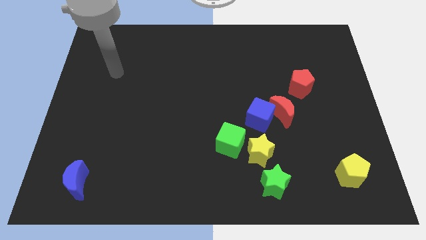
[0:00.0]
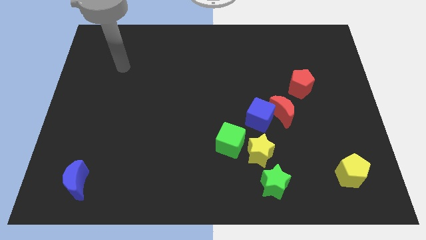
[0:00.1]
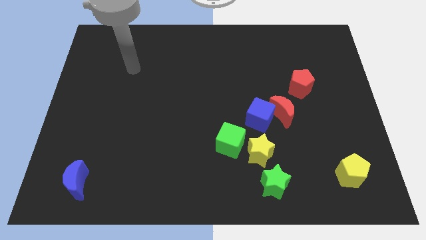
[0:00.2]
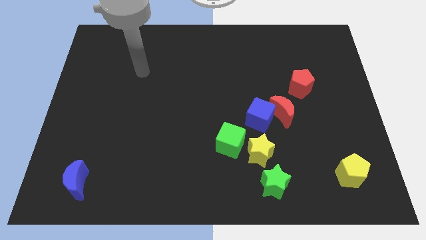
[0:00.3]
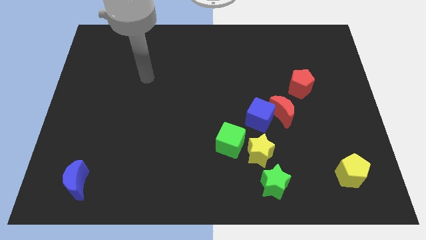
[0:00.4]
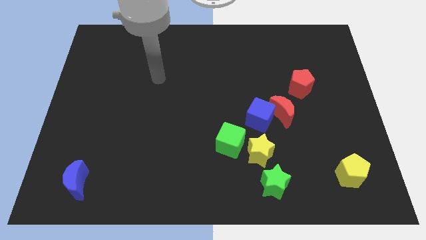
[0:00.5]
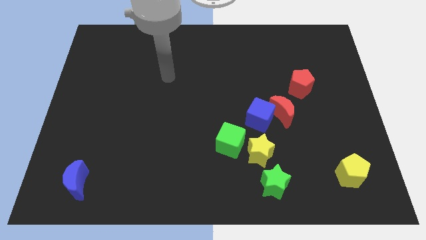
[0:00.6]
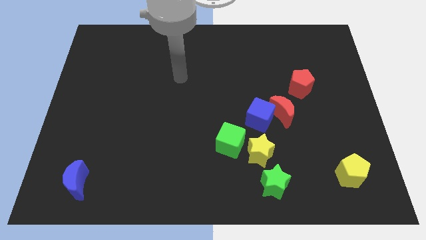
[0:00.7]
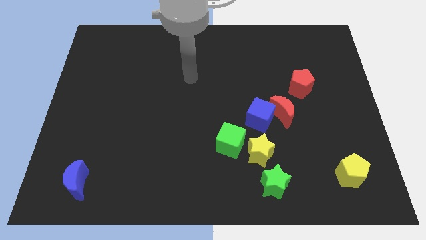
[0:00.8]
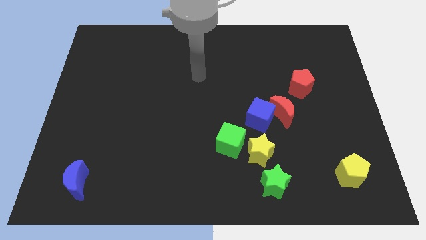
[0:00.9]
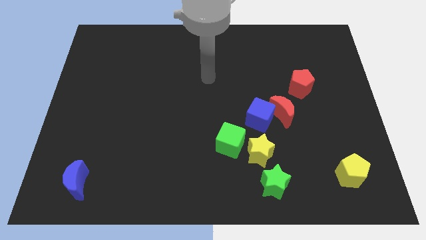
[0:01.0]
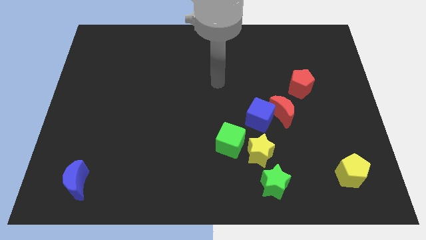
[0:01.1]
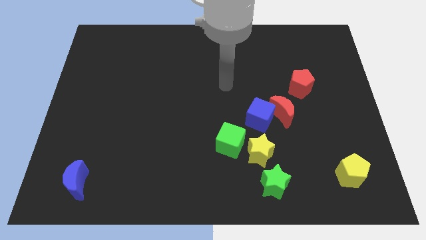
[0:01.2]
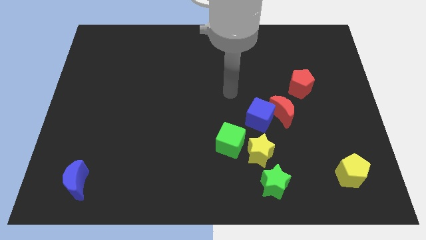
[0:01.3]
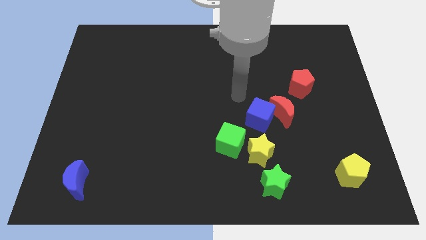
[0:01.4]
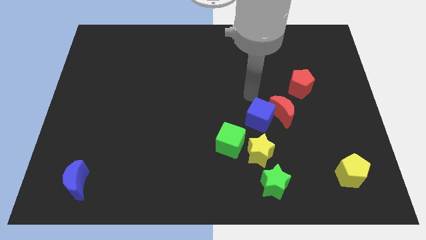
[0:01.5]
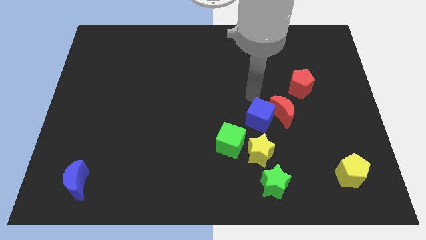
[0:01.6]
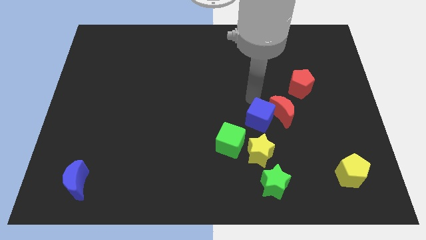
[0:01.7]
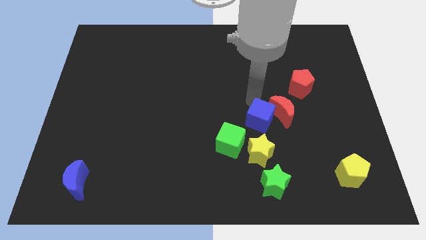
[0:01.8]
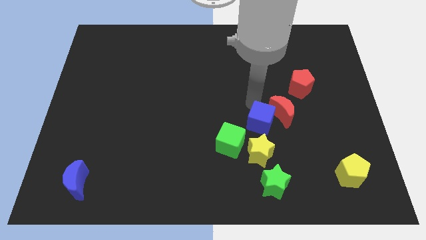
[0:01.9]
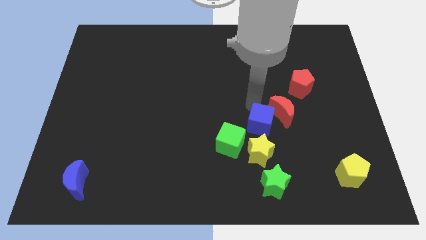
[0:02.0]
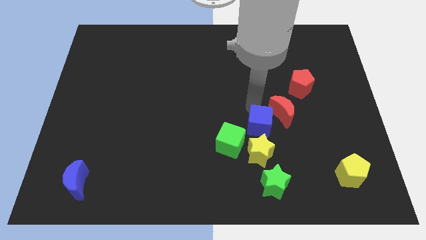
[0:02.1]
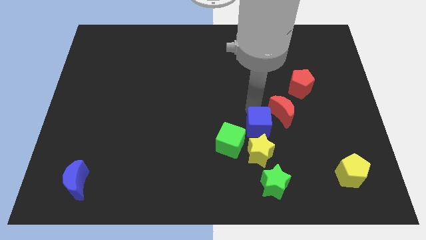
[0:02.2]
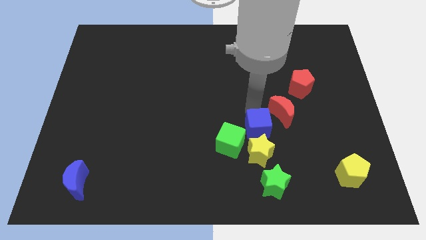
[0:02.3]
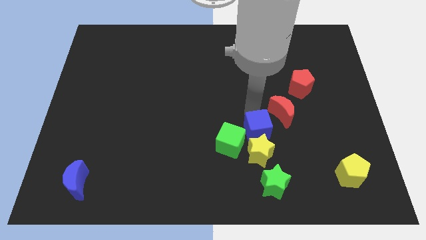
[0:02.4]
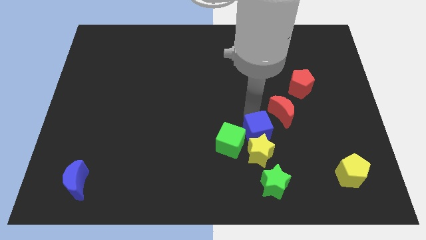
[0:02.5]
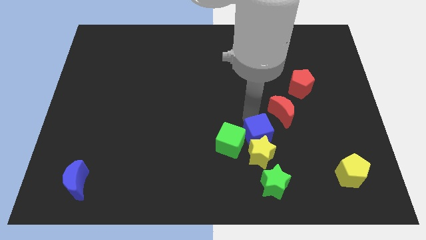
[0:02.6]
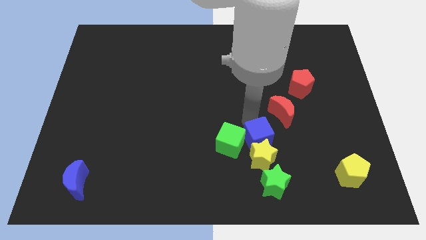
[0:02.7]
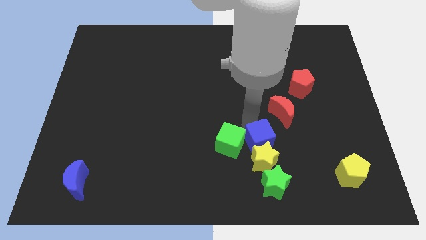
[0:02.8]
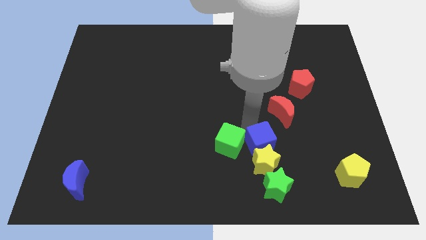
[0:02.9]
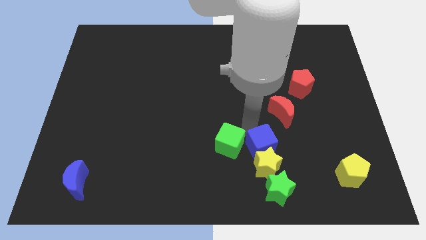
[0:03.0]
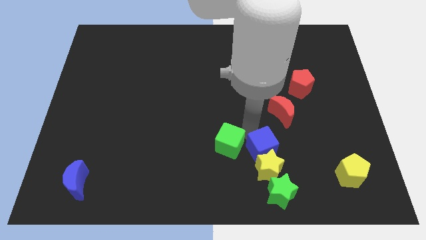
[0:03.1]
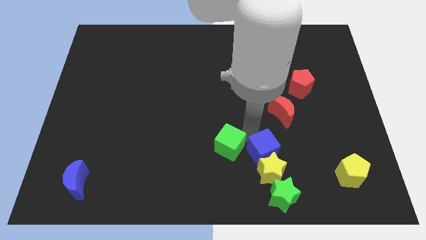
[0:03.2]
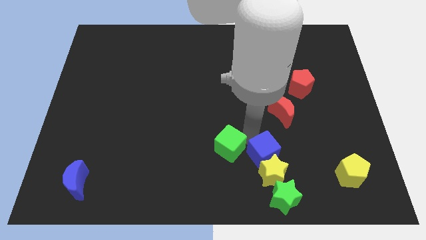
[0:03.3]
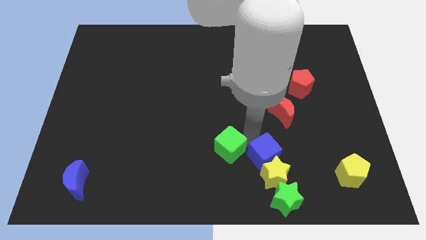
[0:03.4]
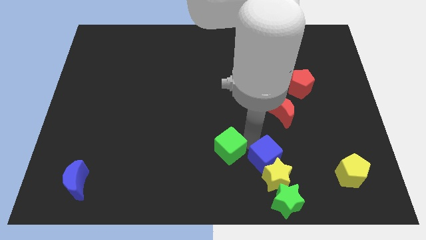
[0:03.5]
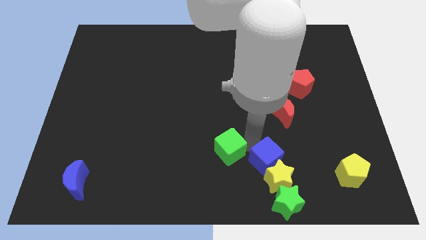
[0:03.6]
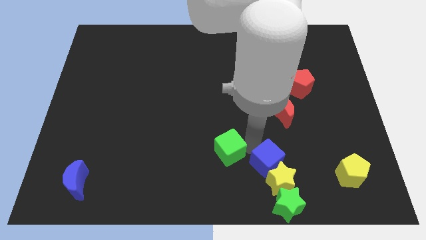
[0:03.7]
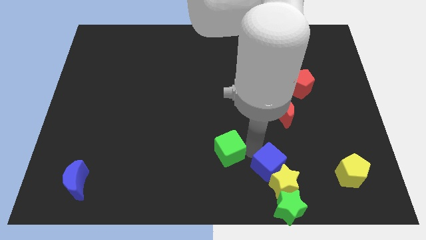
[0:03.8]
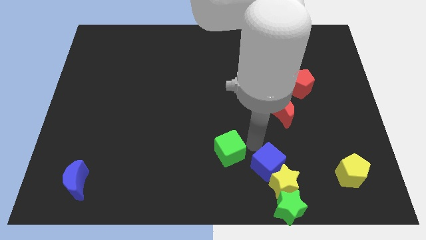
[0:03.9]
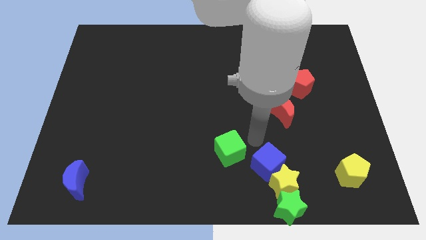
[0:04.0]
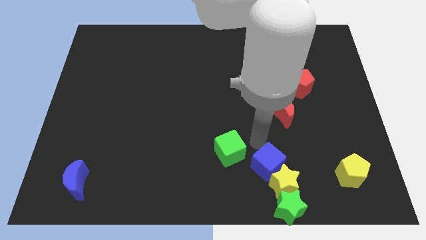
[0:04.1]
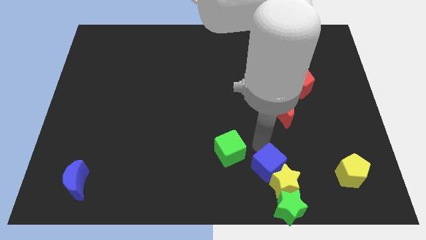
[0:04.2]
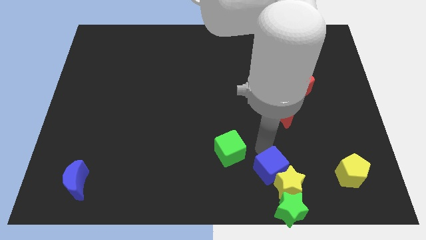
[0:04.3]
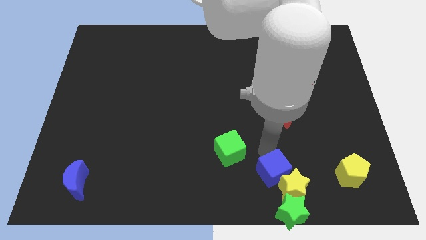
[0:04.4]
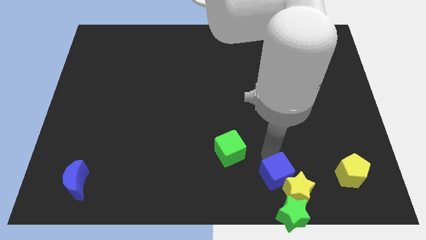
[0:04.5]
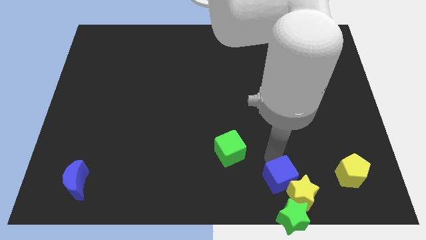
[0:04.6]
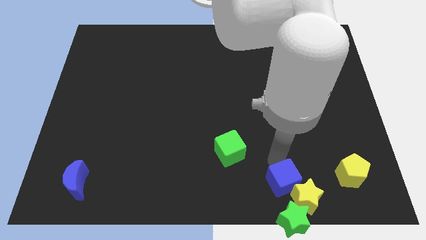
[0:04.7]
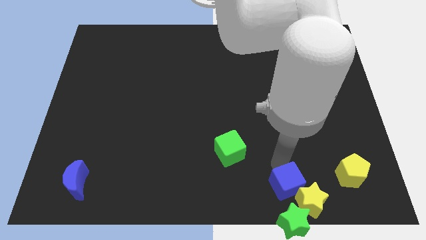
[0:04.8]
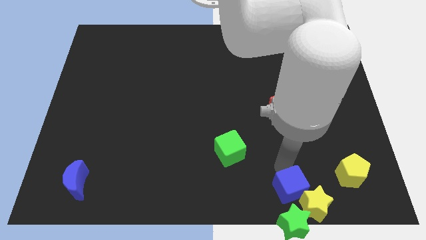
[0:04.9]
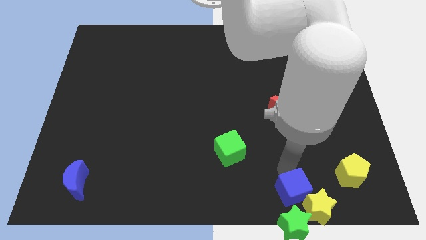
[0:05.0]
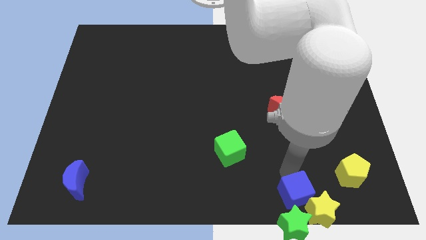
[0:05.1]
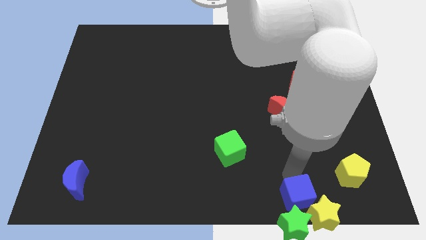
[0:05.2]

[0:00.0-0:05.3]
push the blue cube next to the green star

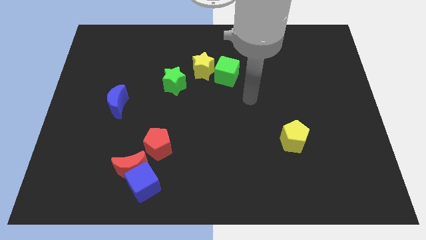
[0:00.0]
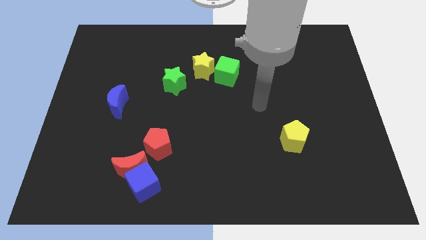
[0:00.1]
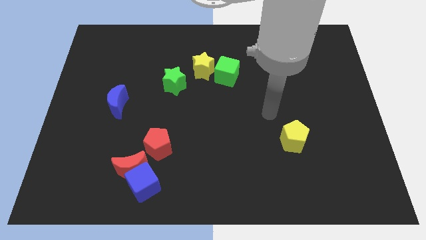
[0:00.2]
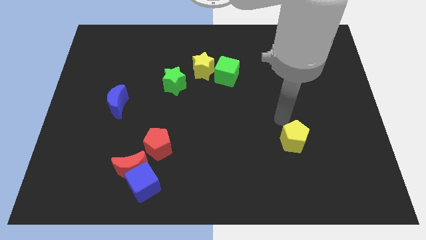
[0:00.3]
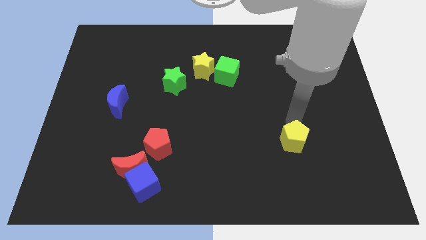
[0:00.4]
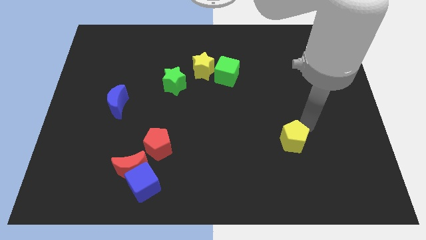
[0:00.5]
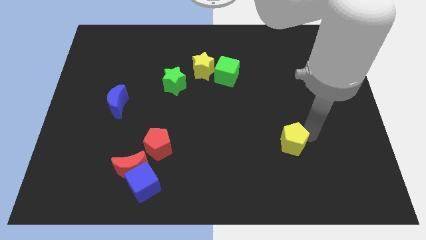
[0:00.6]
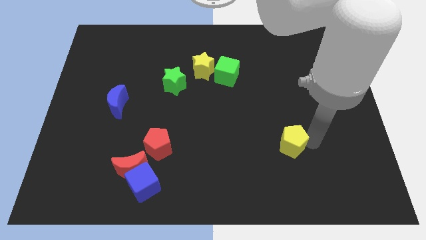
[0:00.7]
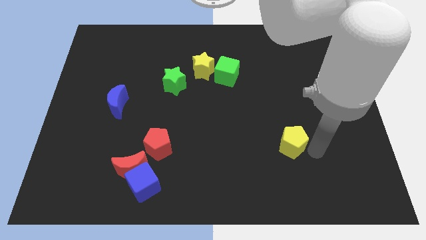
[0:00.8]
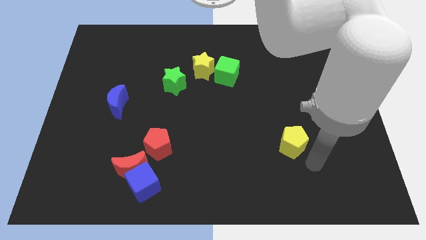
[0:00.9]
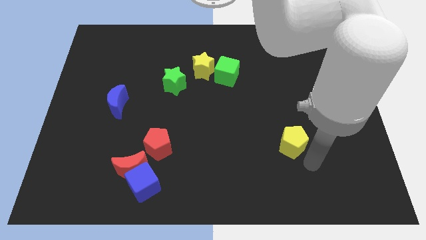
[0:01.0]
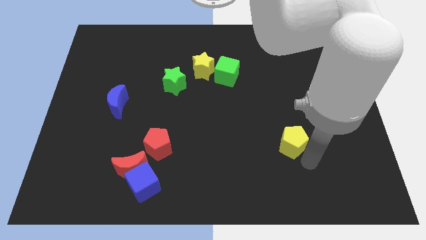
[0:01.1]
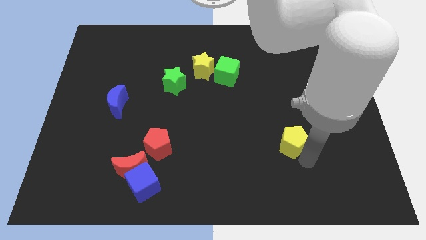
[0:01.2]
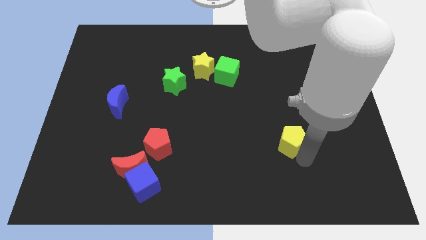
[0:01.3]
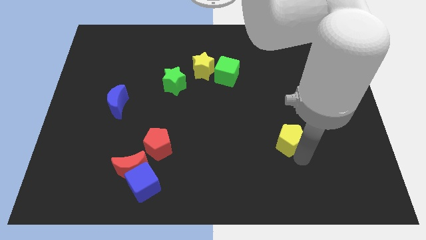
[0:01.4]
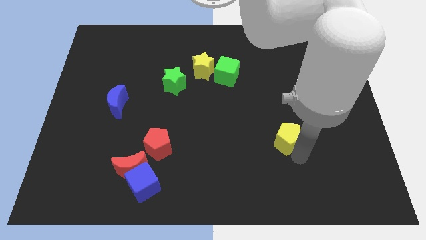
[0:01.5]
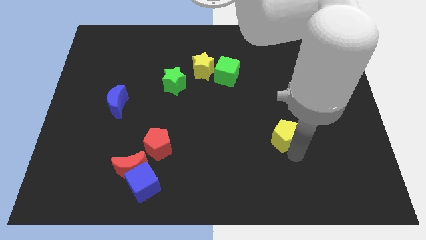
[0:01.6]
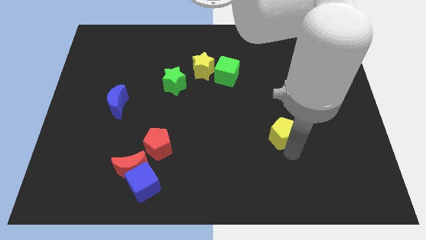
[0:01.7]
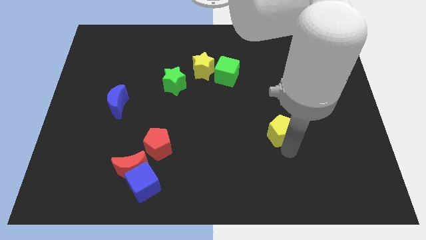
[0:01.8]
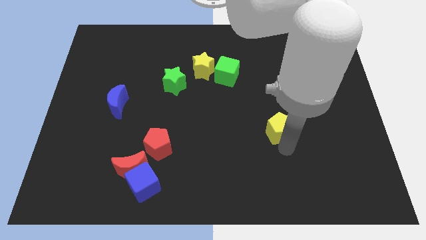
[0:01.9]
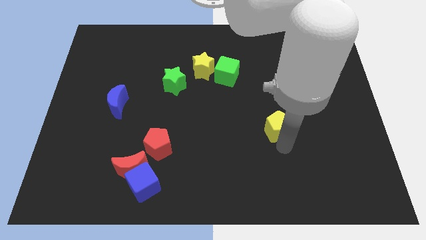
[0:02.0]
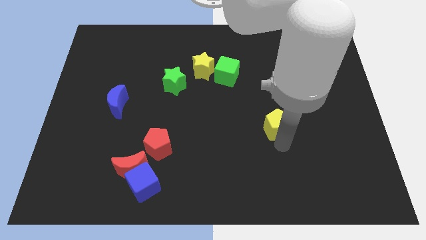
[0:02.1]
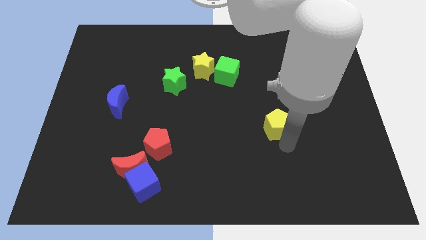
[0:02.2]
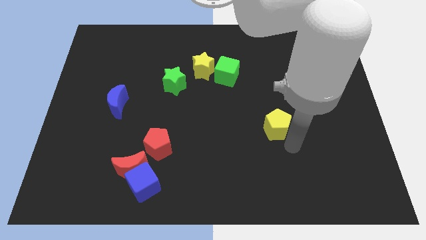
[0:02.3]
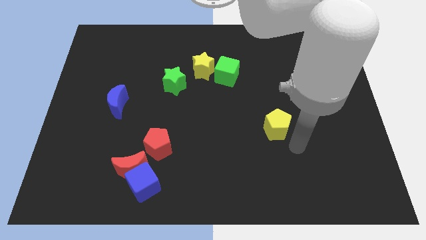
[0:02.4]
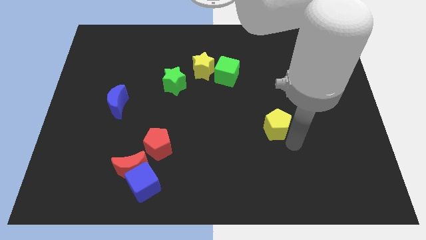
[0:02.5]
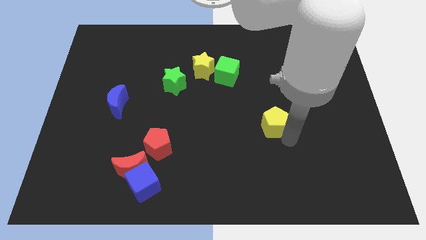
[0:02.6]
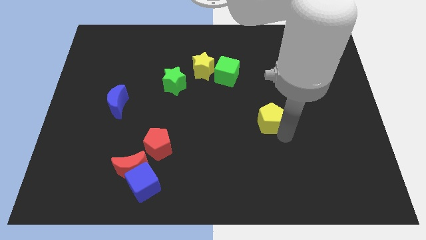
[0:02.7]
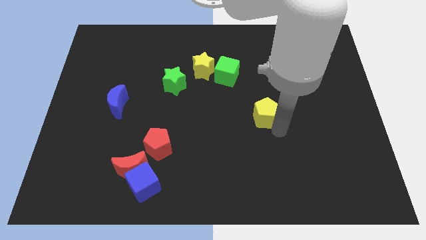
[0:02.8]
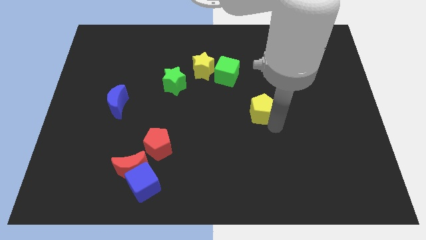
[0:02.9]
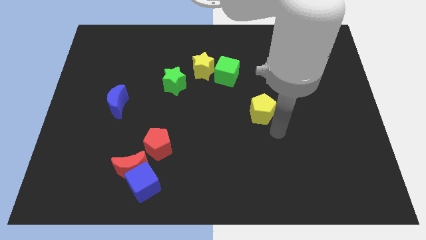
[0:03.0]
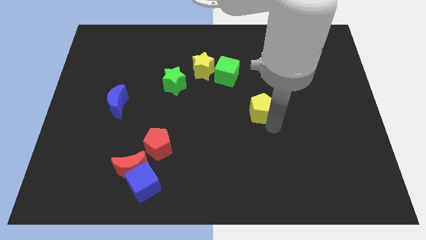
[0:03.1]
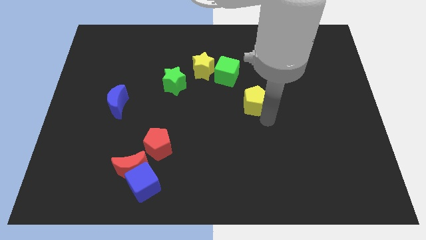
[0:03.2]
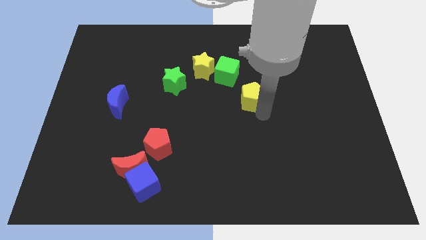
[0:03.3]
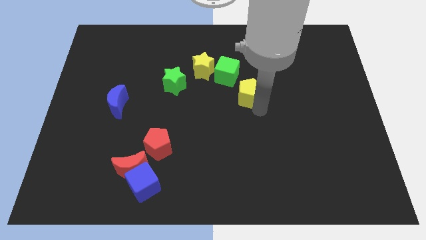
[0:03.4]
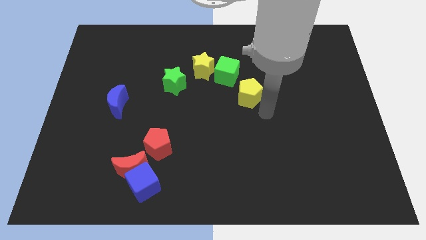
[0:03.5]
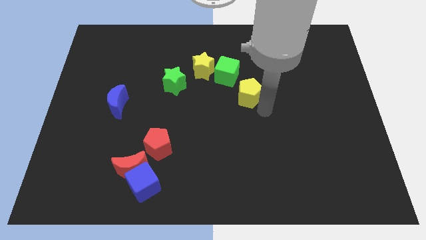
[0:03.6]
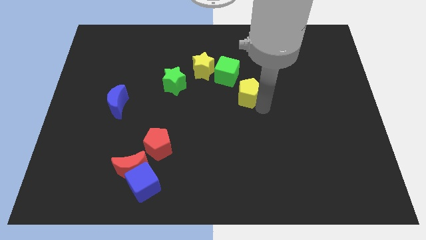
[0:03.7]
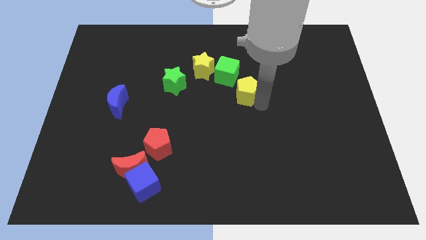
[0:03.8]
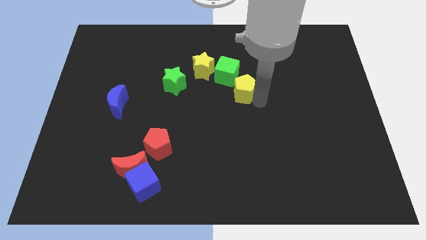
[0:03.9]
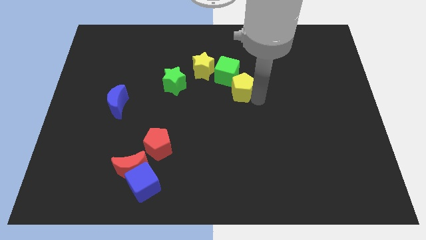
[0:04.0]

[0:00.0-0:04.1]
push the yellow pentagon towards the green cube
